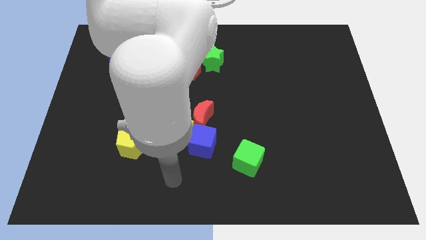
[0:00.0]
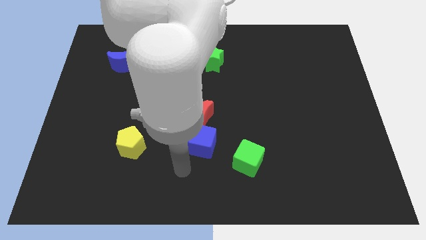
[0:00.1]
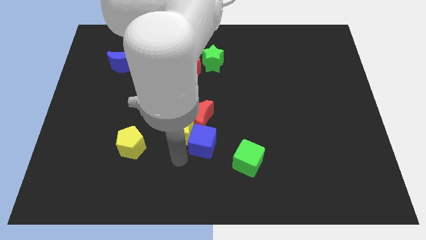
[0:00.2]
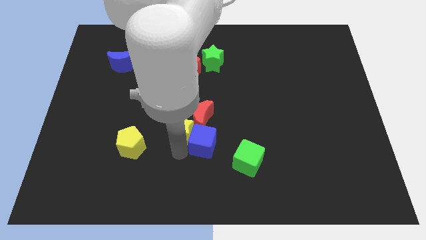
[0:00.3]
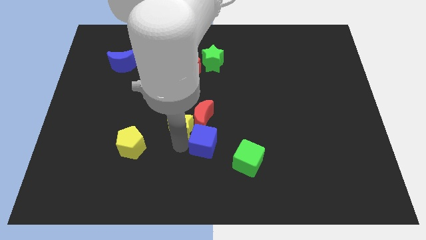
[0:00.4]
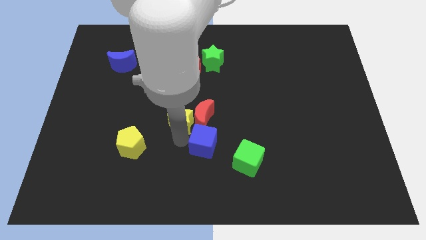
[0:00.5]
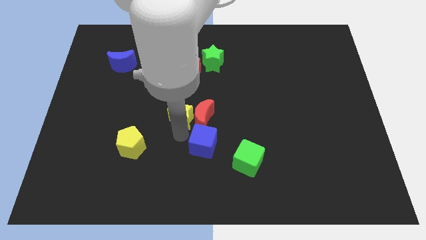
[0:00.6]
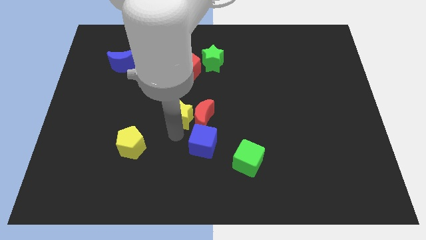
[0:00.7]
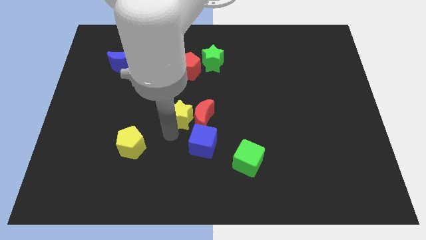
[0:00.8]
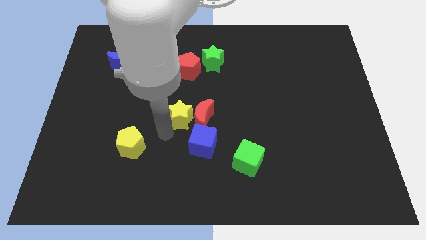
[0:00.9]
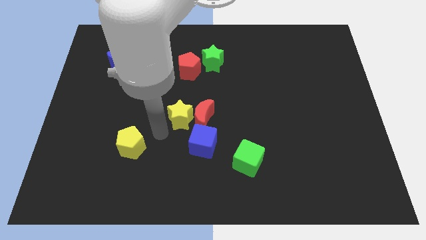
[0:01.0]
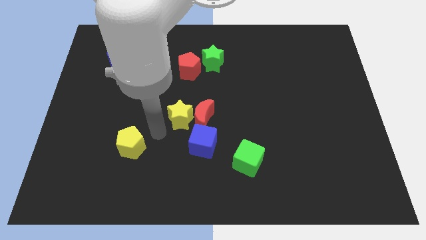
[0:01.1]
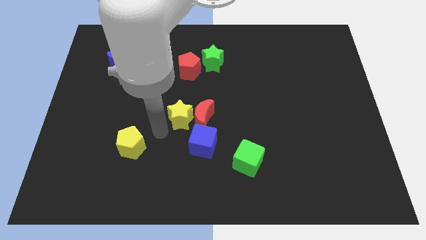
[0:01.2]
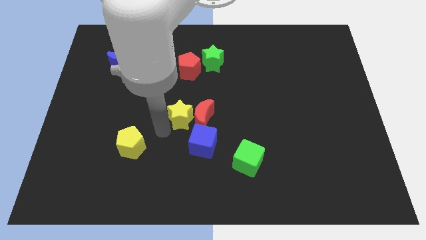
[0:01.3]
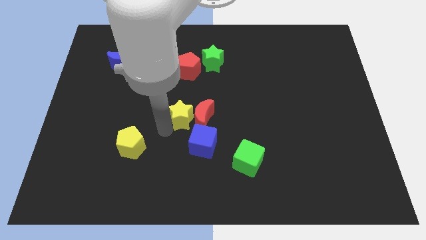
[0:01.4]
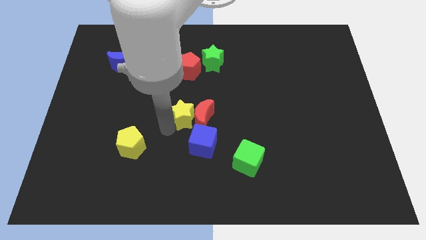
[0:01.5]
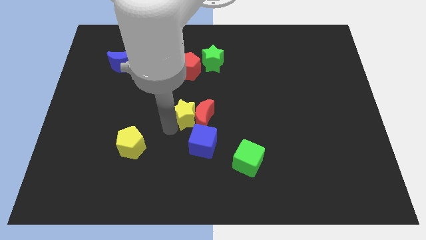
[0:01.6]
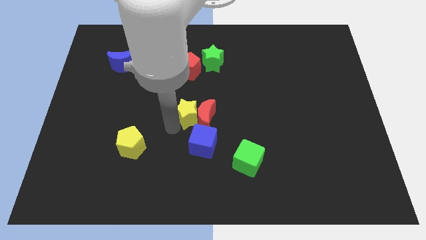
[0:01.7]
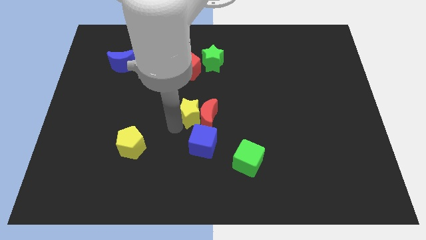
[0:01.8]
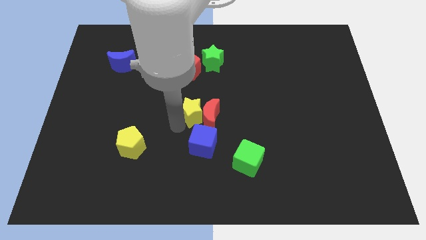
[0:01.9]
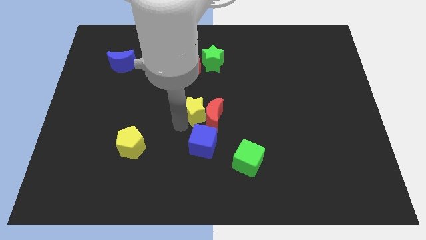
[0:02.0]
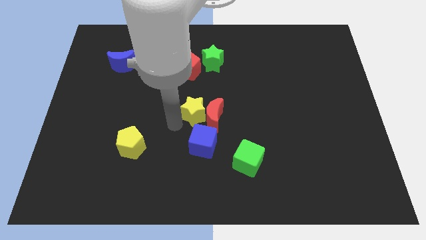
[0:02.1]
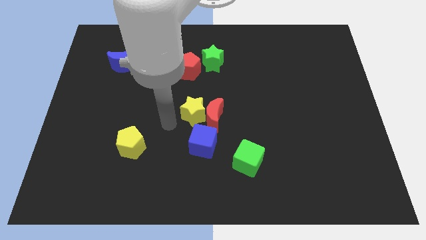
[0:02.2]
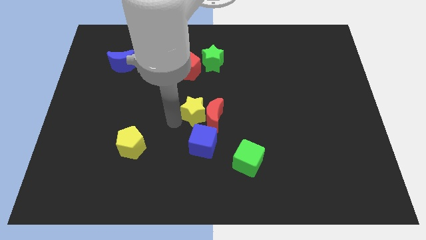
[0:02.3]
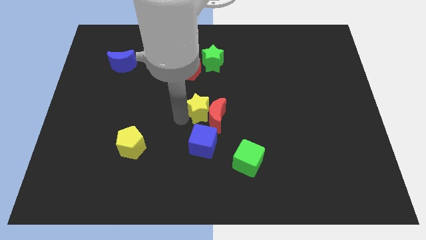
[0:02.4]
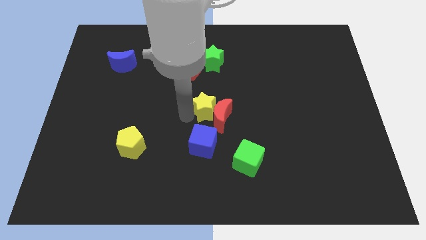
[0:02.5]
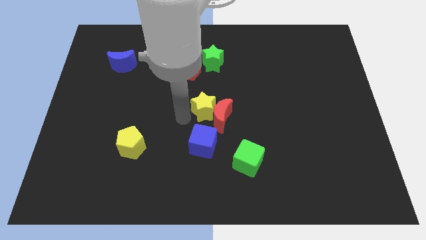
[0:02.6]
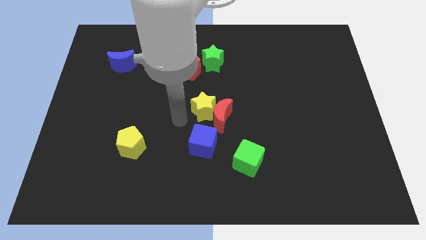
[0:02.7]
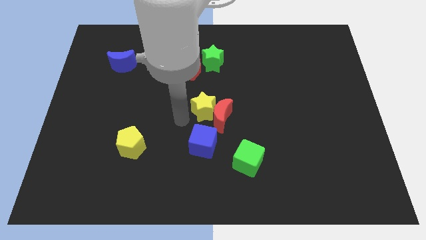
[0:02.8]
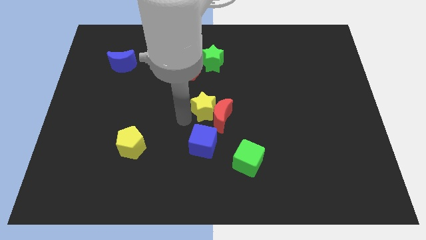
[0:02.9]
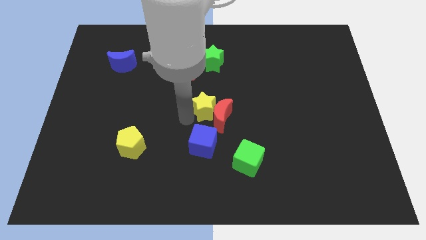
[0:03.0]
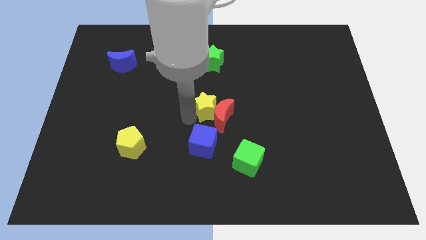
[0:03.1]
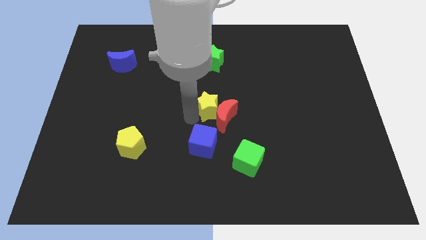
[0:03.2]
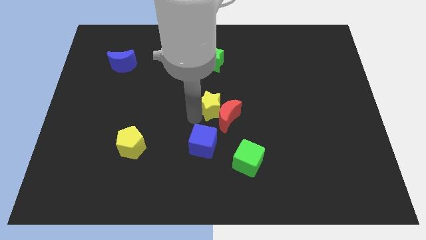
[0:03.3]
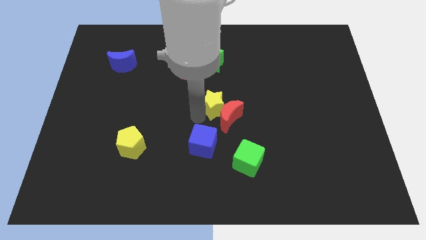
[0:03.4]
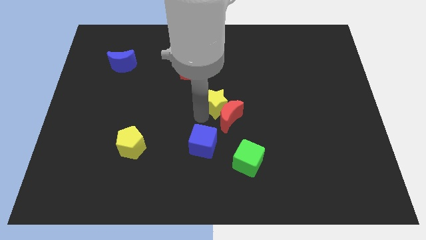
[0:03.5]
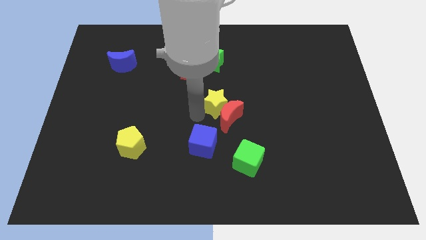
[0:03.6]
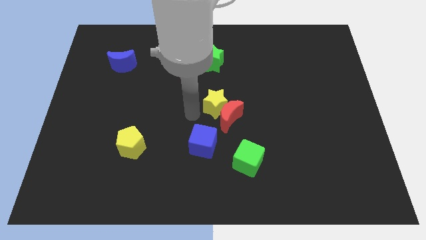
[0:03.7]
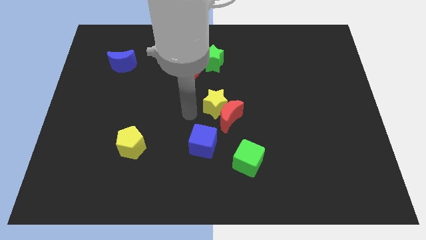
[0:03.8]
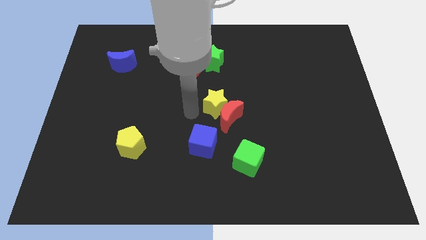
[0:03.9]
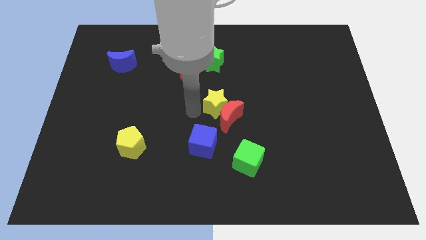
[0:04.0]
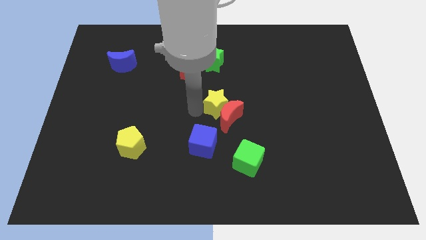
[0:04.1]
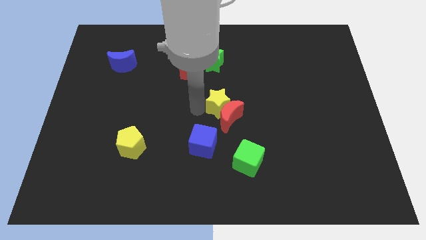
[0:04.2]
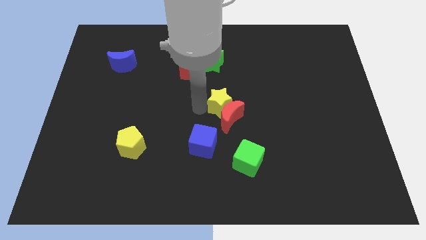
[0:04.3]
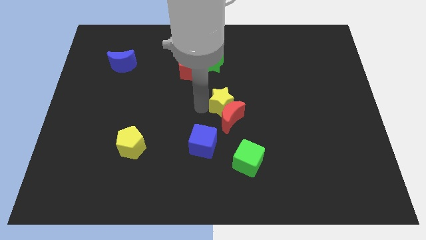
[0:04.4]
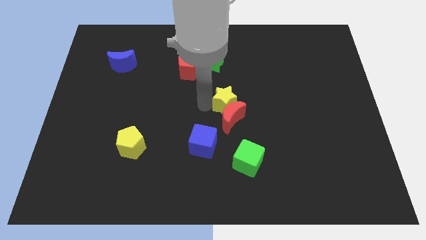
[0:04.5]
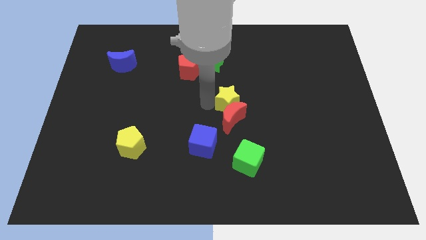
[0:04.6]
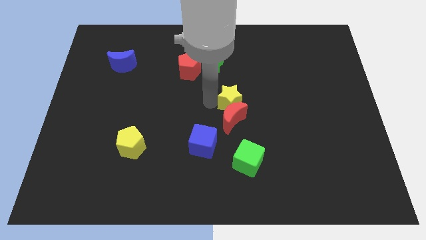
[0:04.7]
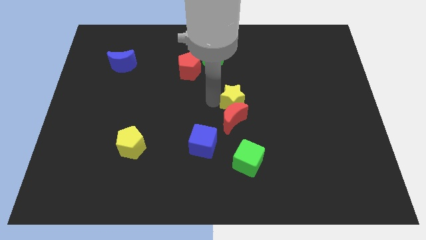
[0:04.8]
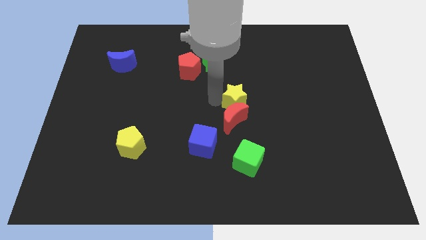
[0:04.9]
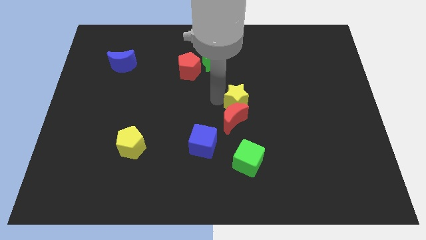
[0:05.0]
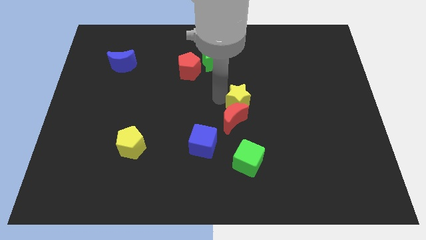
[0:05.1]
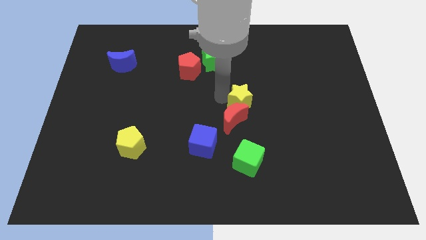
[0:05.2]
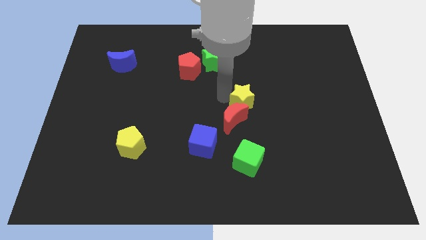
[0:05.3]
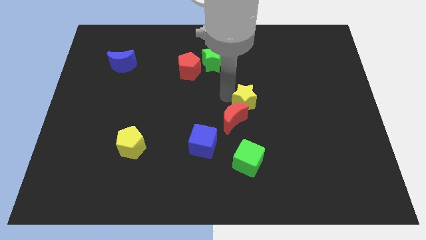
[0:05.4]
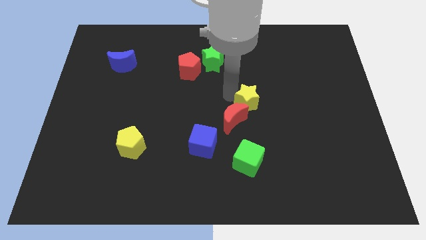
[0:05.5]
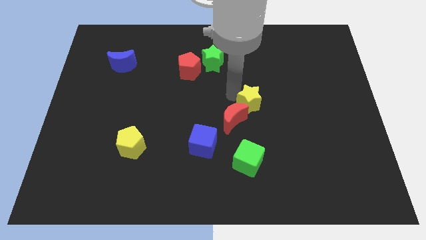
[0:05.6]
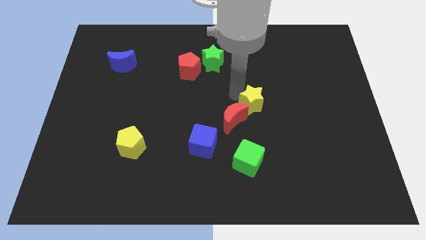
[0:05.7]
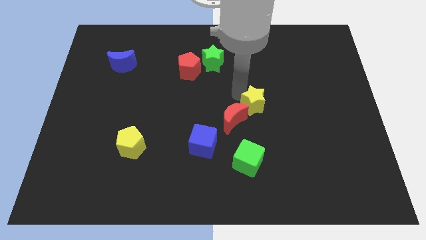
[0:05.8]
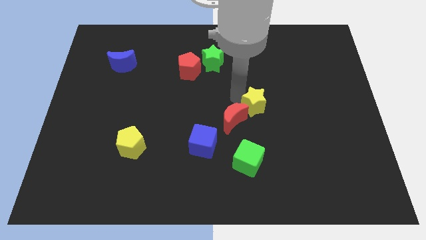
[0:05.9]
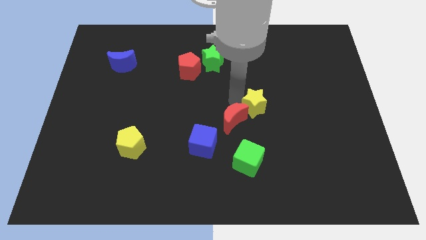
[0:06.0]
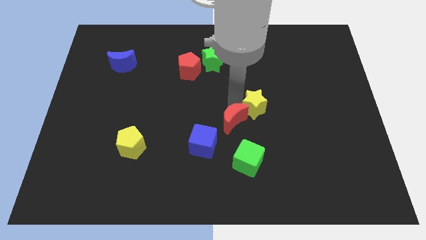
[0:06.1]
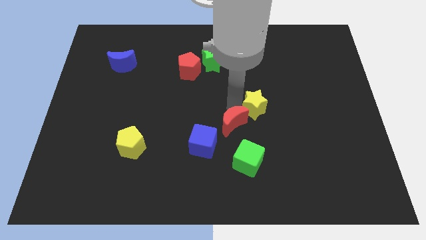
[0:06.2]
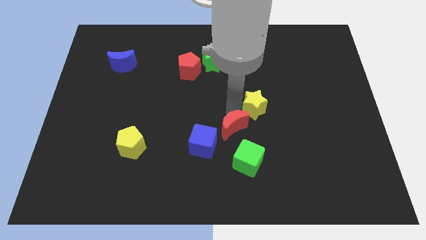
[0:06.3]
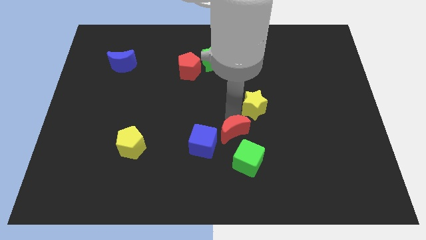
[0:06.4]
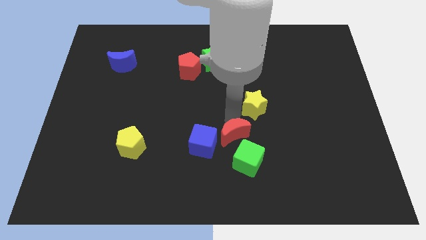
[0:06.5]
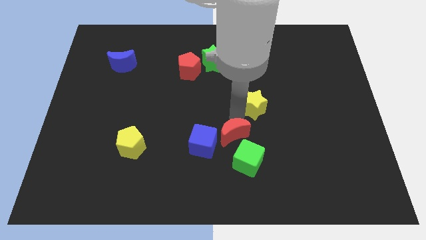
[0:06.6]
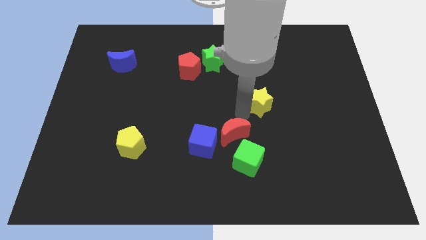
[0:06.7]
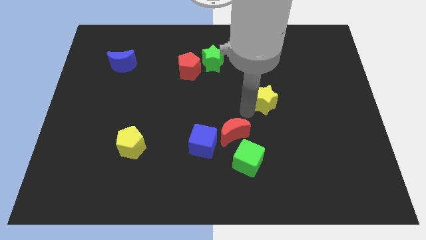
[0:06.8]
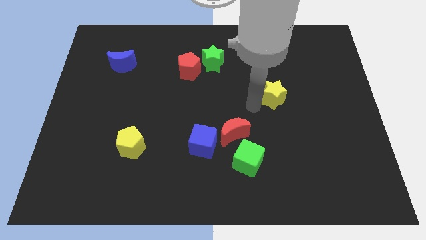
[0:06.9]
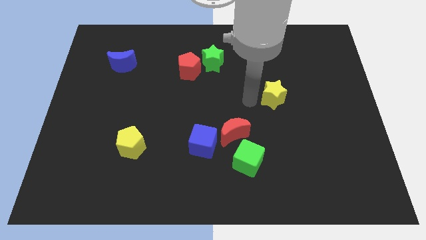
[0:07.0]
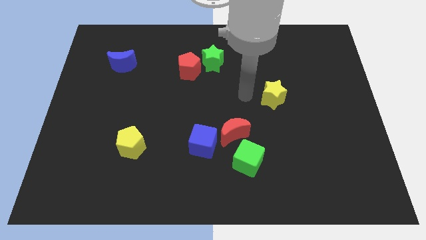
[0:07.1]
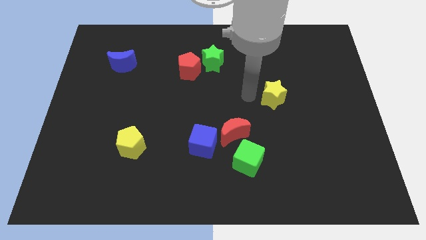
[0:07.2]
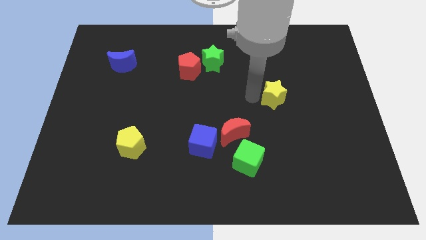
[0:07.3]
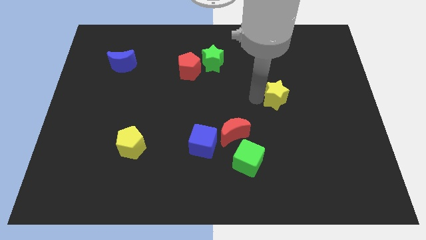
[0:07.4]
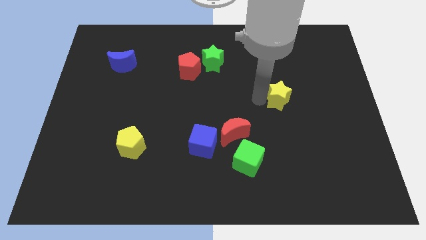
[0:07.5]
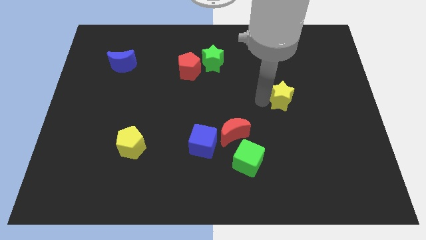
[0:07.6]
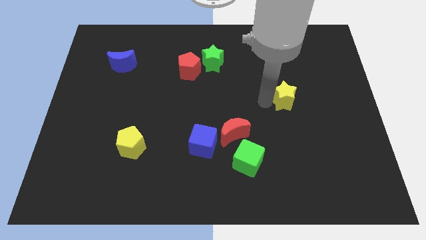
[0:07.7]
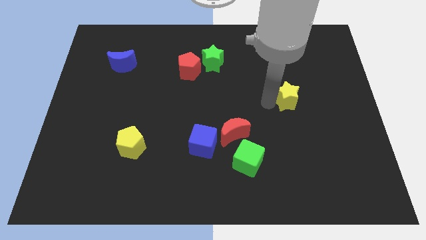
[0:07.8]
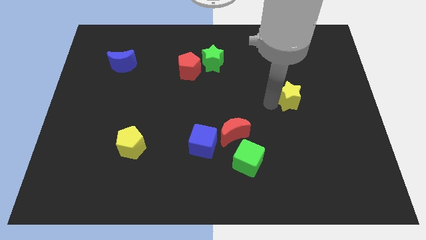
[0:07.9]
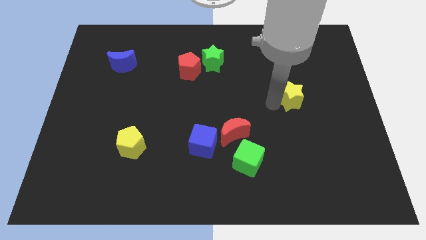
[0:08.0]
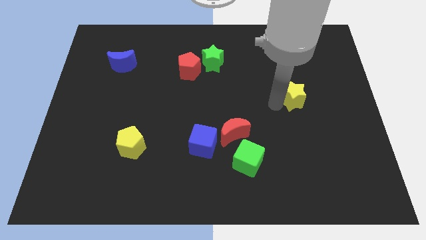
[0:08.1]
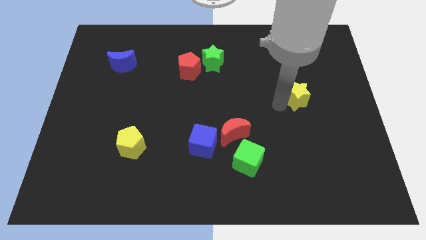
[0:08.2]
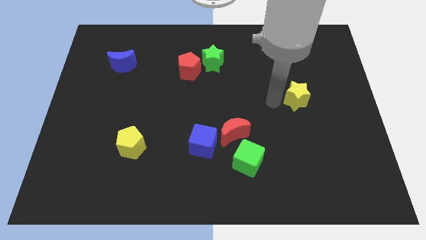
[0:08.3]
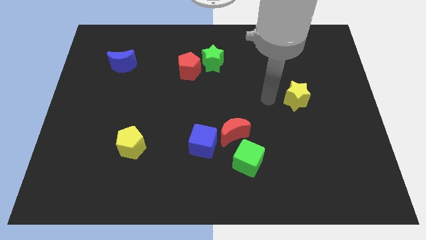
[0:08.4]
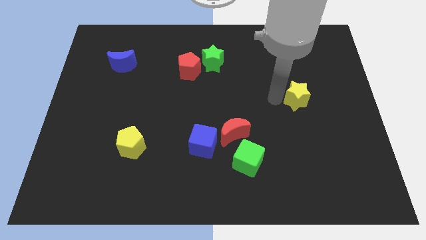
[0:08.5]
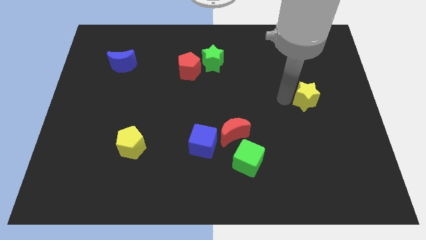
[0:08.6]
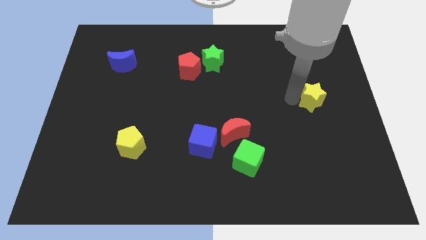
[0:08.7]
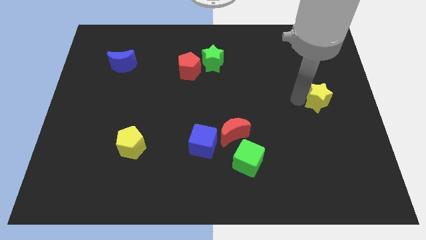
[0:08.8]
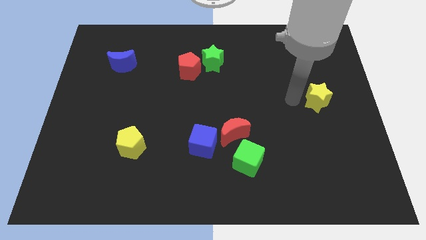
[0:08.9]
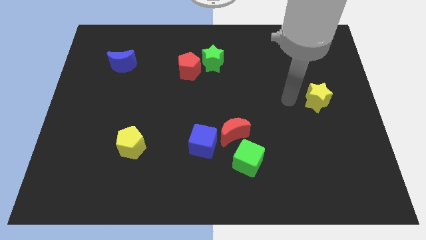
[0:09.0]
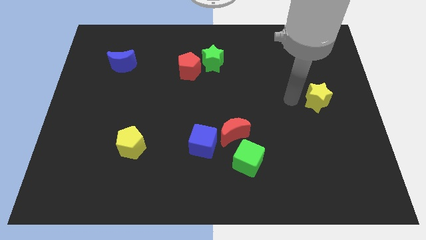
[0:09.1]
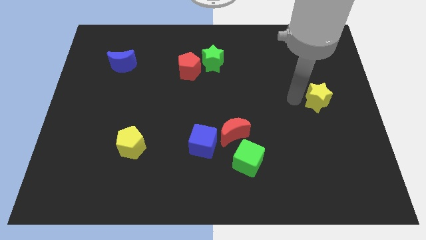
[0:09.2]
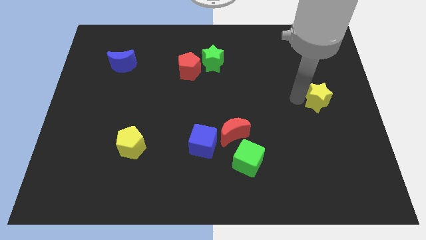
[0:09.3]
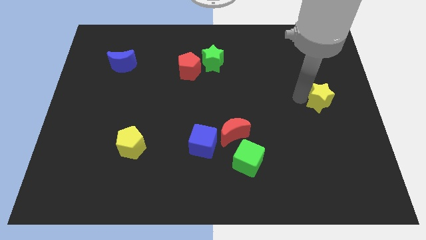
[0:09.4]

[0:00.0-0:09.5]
put the yellow star to the right side of the board
